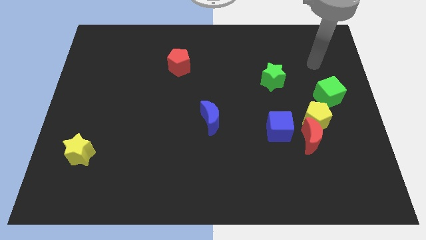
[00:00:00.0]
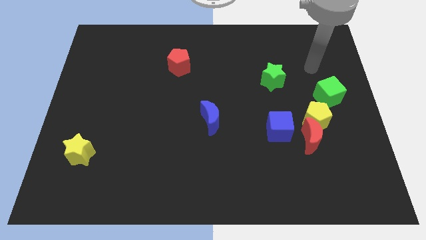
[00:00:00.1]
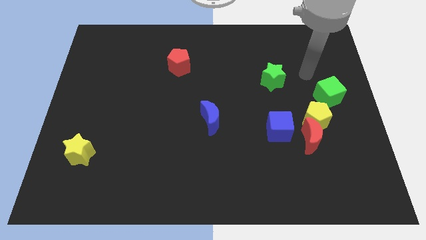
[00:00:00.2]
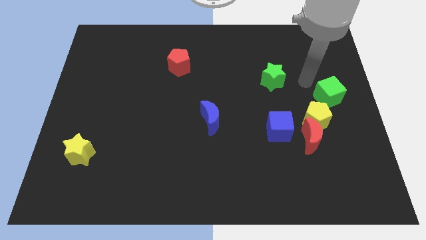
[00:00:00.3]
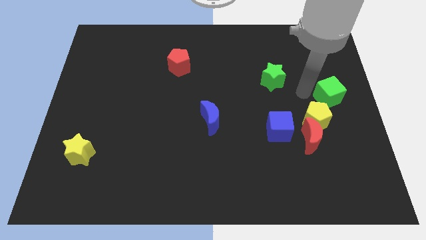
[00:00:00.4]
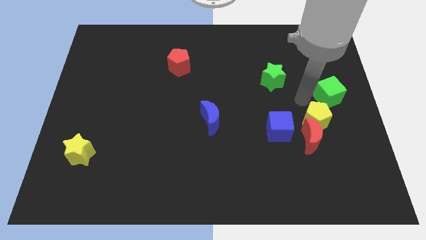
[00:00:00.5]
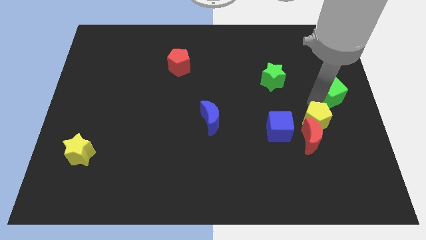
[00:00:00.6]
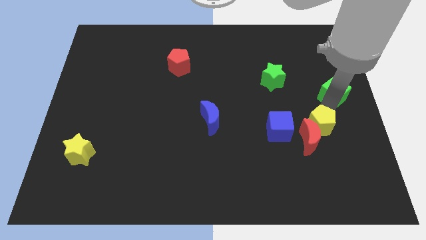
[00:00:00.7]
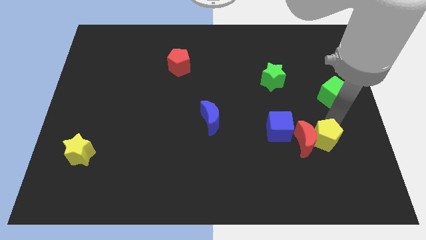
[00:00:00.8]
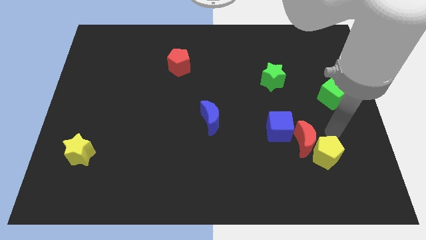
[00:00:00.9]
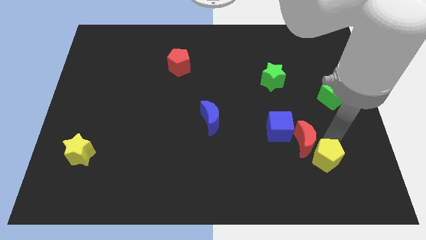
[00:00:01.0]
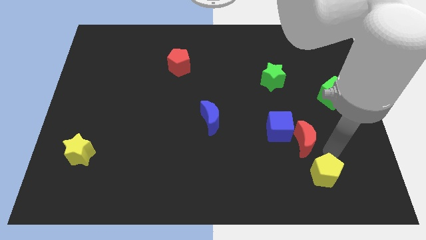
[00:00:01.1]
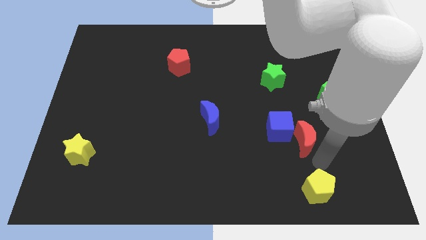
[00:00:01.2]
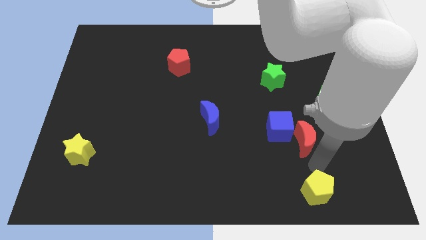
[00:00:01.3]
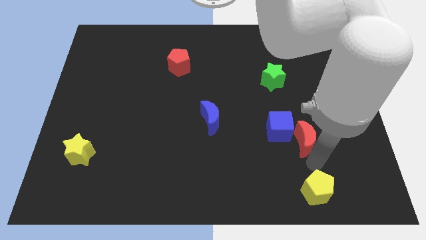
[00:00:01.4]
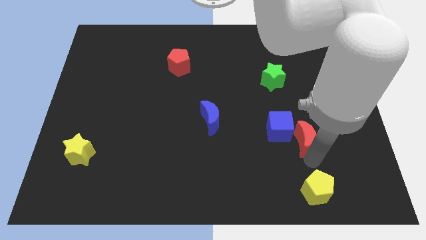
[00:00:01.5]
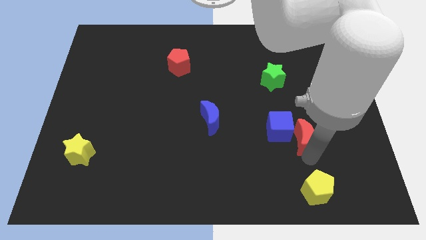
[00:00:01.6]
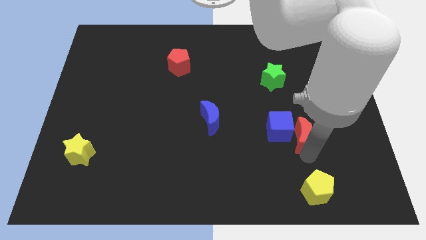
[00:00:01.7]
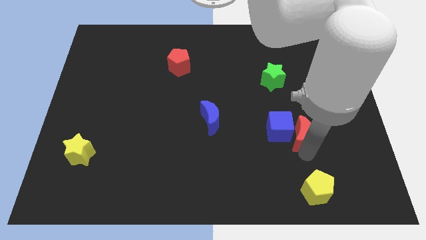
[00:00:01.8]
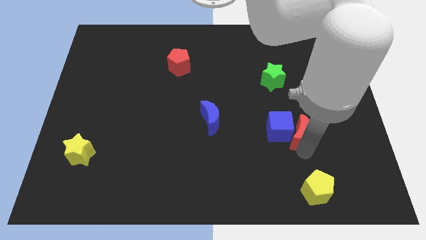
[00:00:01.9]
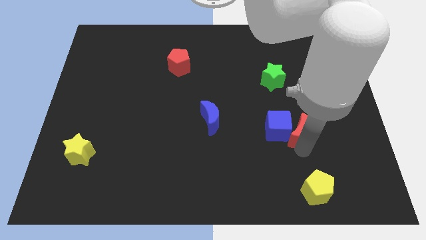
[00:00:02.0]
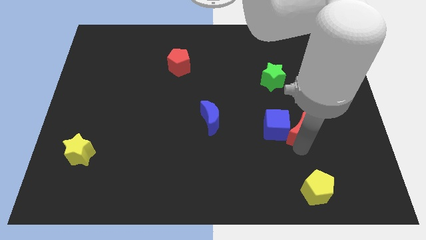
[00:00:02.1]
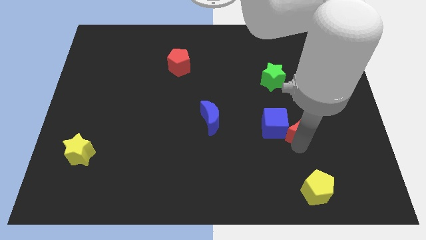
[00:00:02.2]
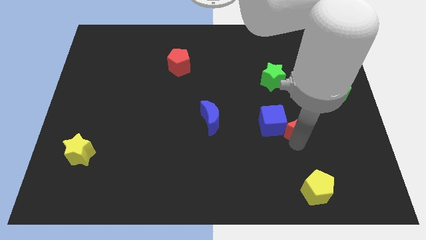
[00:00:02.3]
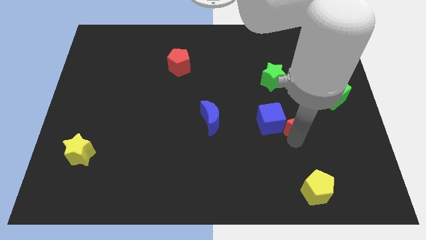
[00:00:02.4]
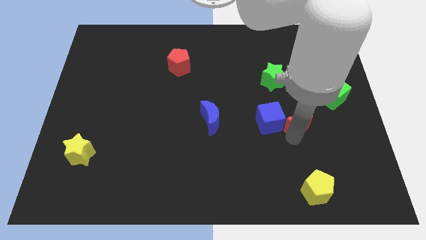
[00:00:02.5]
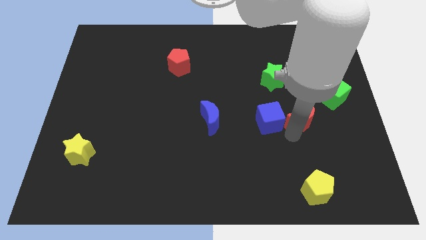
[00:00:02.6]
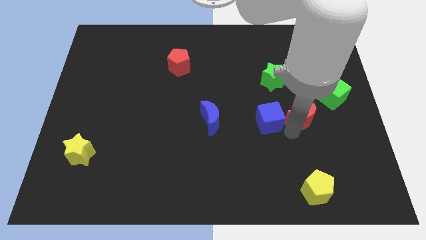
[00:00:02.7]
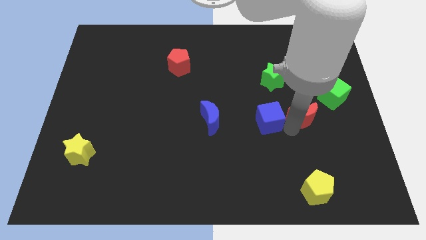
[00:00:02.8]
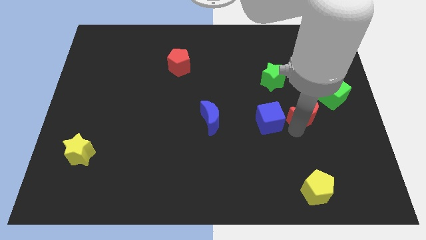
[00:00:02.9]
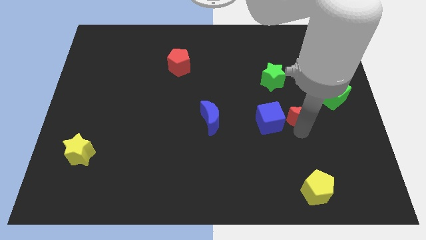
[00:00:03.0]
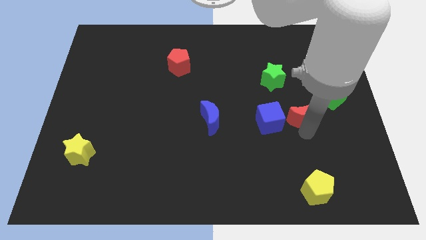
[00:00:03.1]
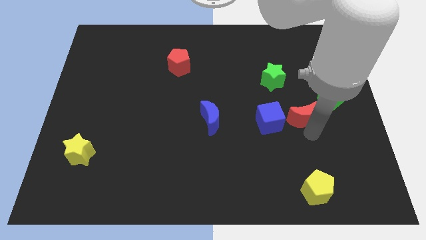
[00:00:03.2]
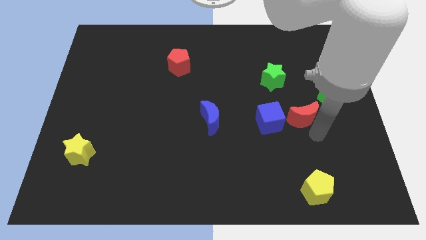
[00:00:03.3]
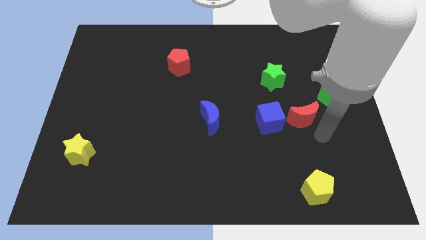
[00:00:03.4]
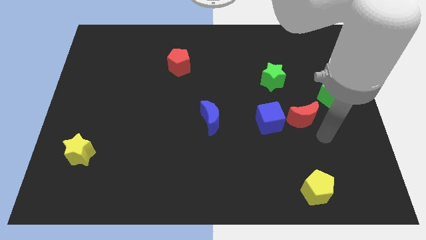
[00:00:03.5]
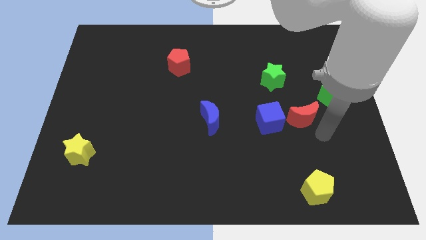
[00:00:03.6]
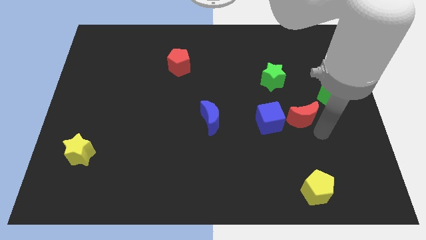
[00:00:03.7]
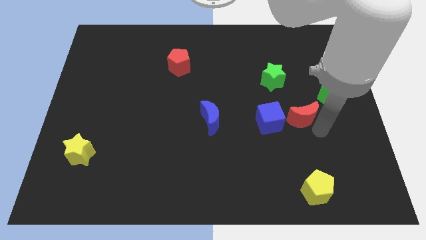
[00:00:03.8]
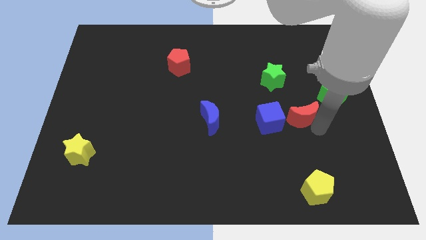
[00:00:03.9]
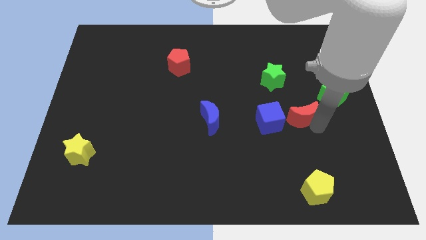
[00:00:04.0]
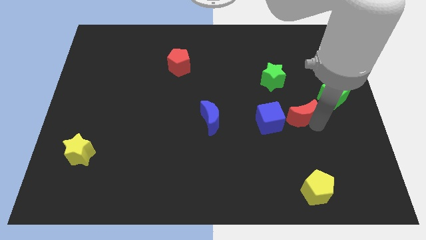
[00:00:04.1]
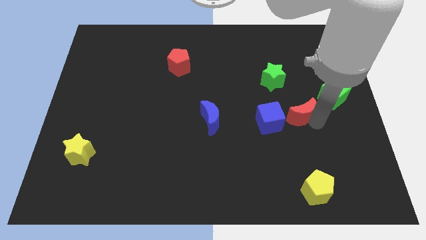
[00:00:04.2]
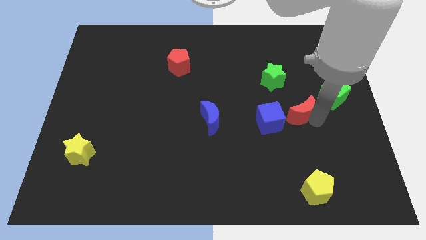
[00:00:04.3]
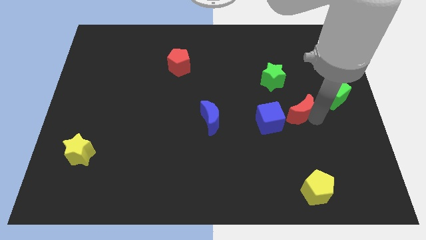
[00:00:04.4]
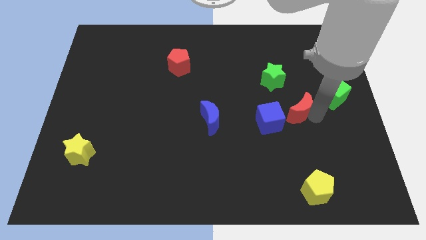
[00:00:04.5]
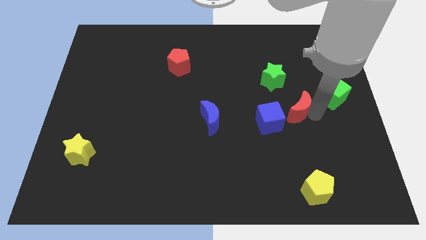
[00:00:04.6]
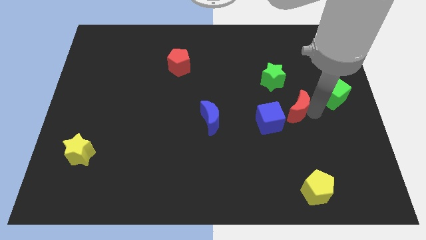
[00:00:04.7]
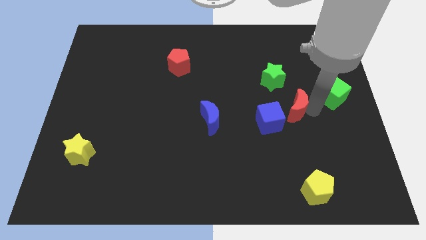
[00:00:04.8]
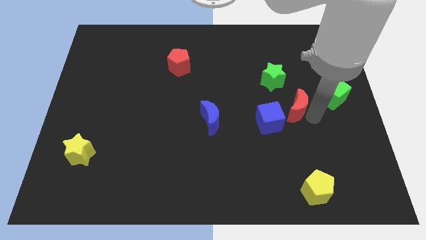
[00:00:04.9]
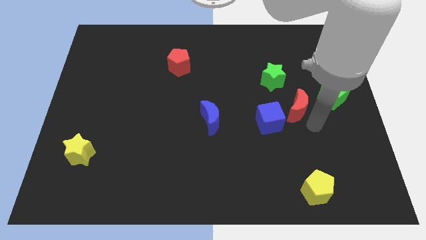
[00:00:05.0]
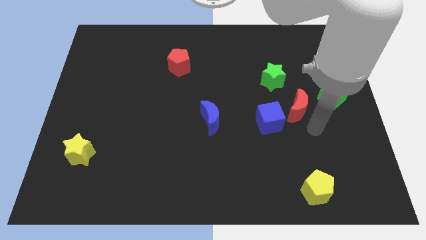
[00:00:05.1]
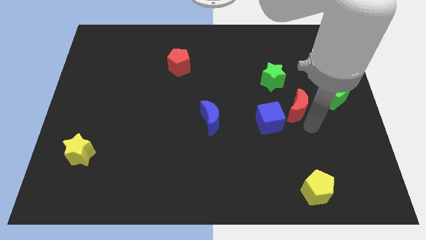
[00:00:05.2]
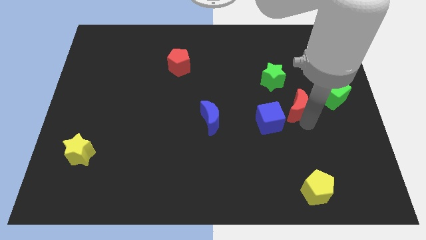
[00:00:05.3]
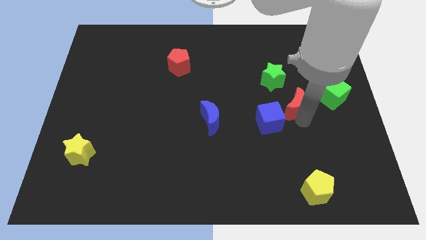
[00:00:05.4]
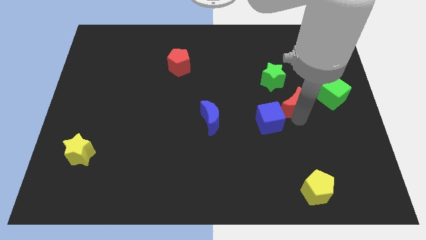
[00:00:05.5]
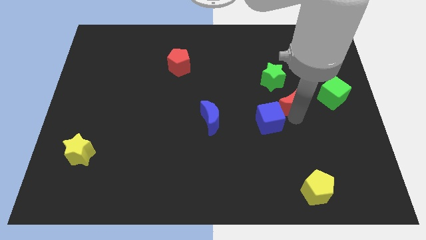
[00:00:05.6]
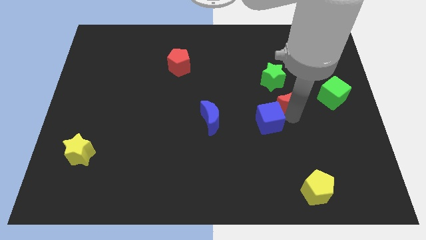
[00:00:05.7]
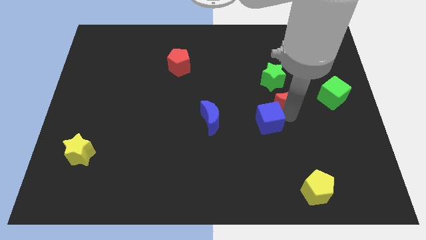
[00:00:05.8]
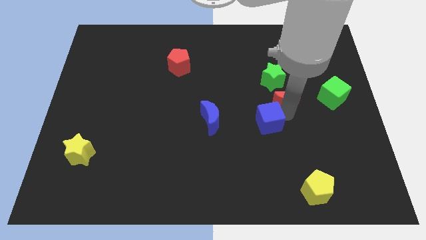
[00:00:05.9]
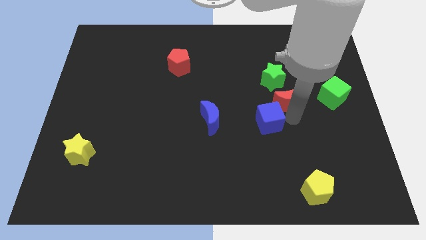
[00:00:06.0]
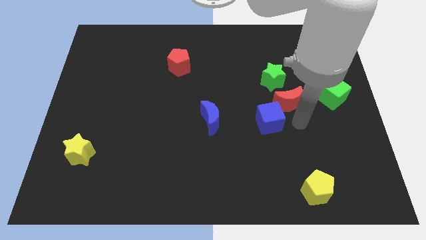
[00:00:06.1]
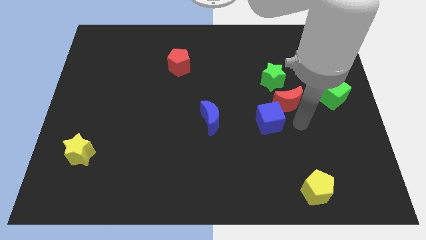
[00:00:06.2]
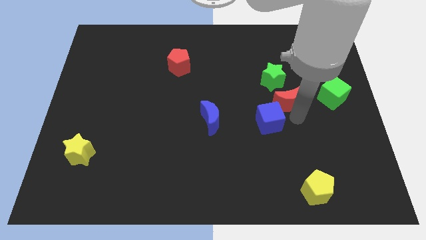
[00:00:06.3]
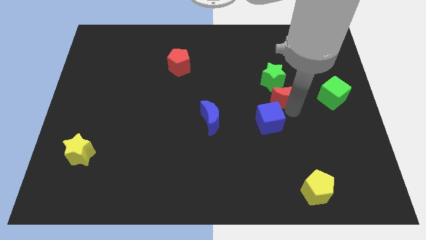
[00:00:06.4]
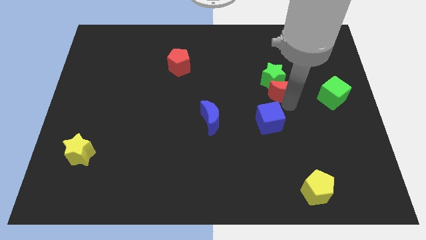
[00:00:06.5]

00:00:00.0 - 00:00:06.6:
slide the red moon to the green star
